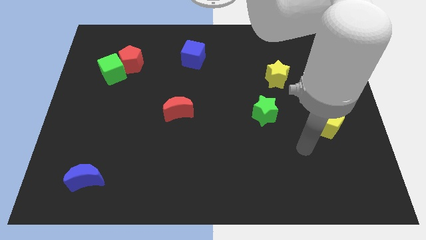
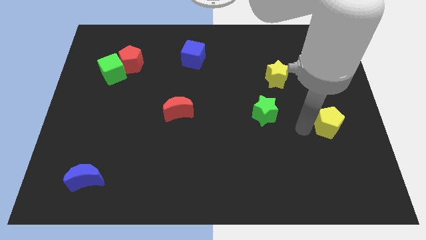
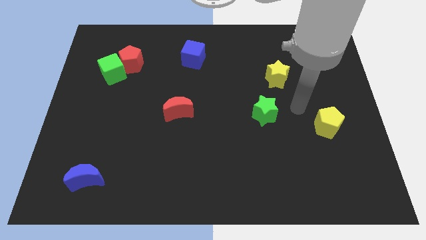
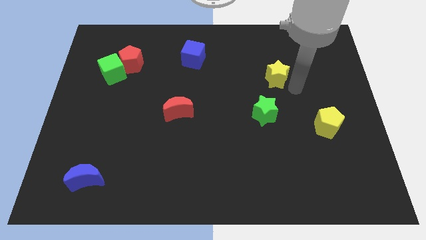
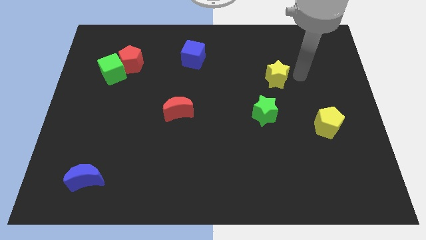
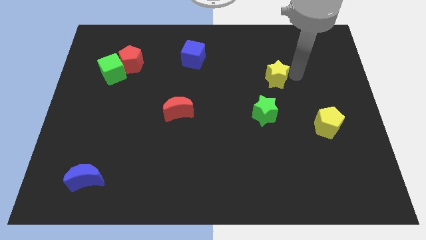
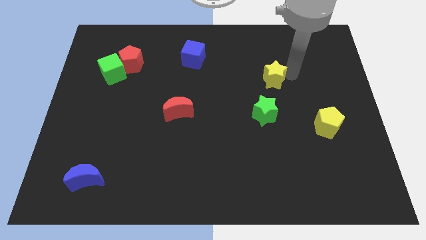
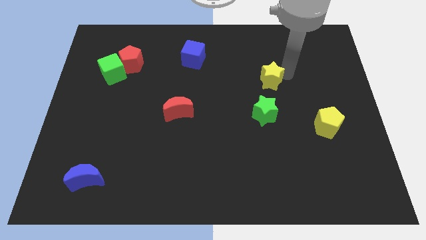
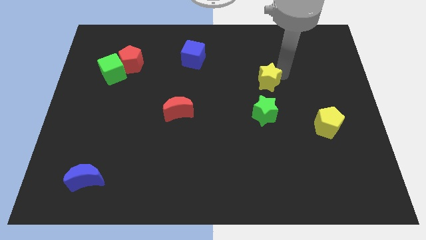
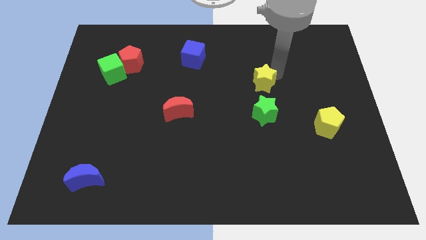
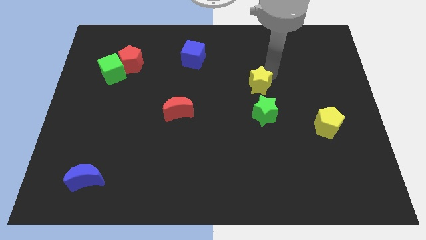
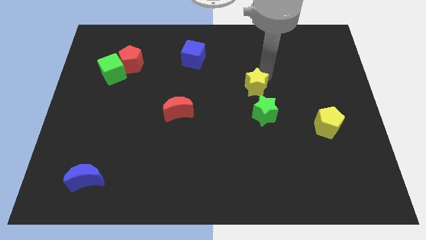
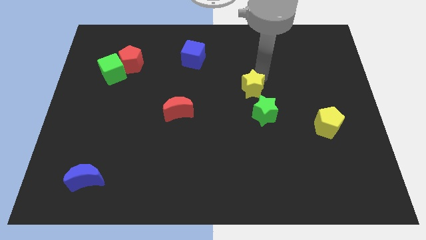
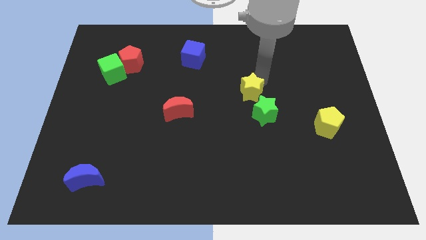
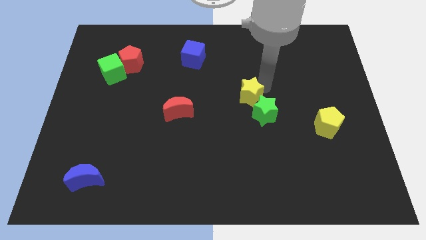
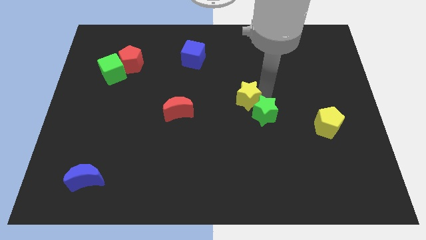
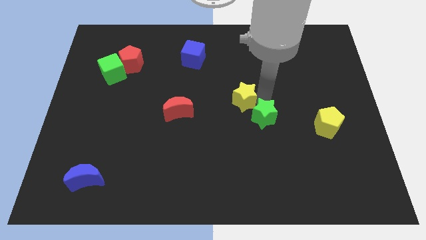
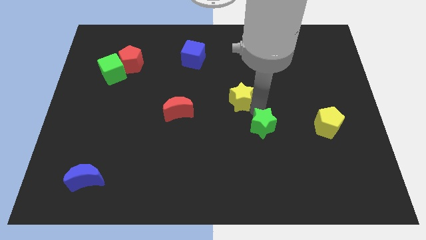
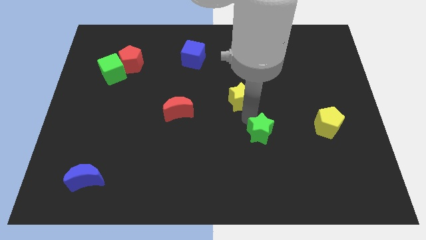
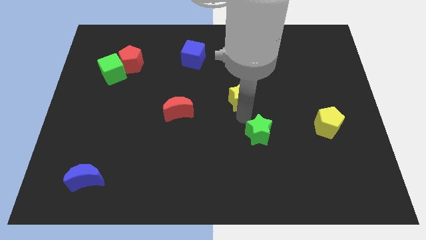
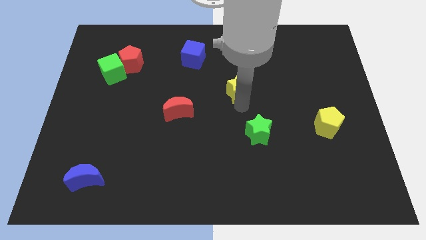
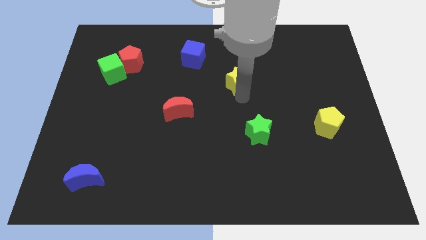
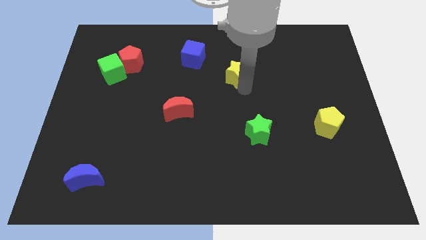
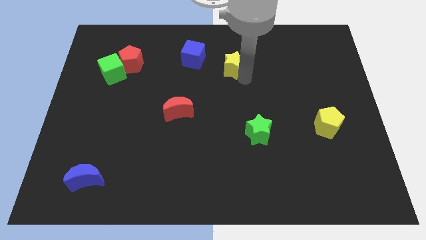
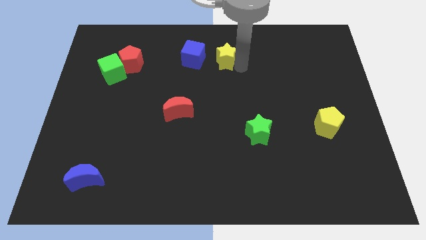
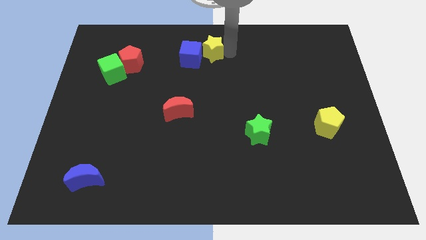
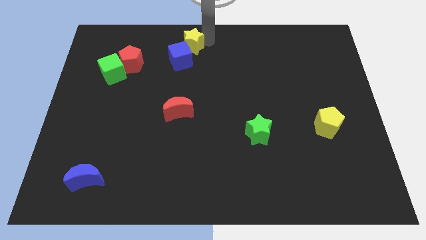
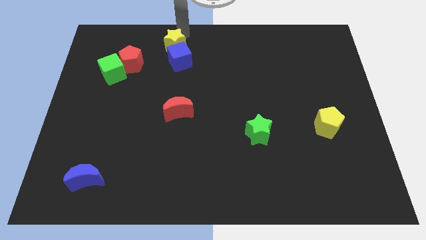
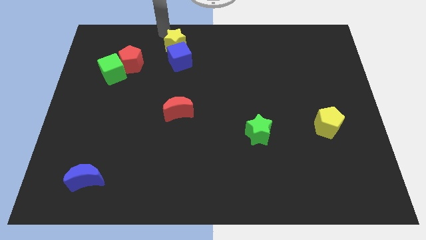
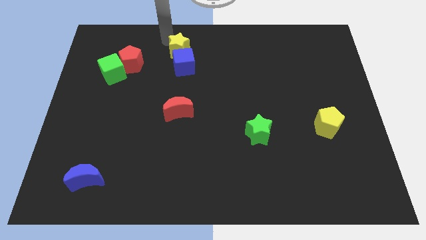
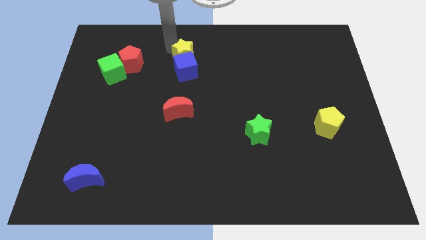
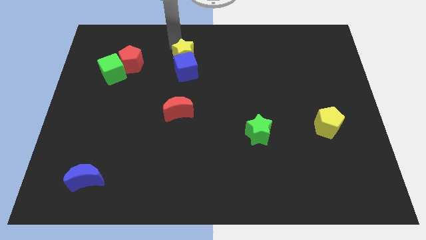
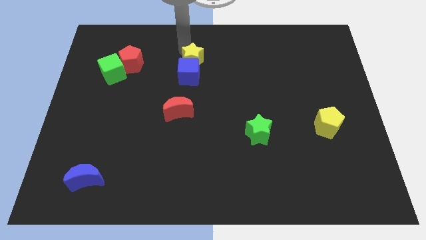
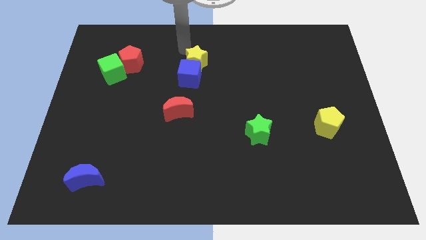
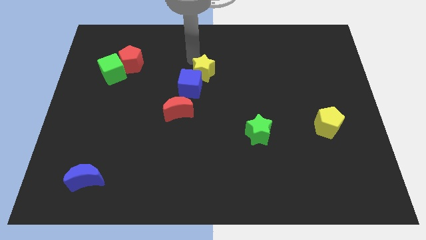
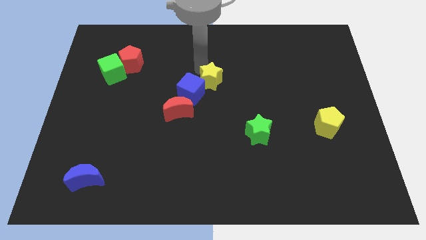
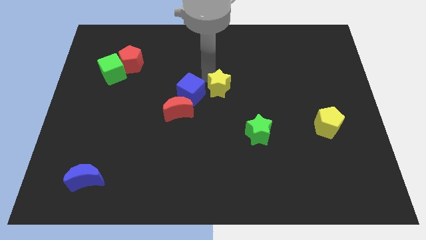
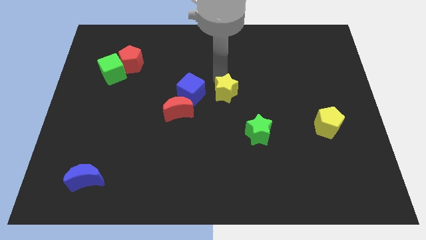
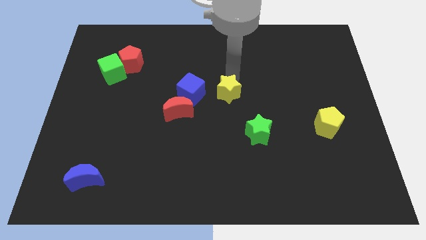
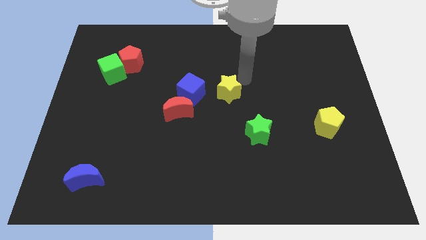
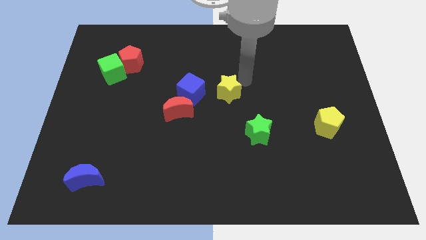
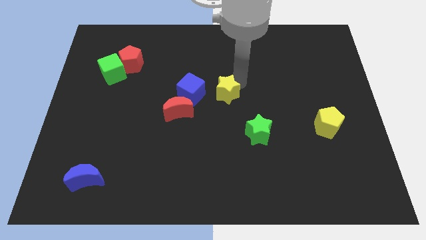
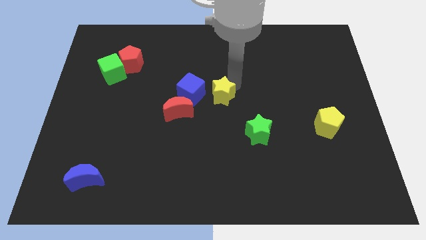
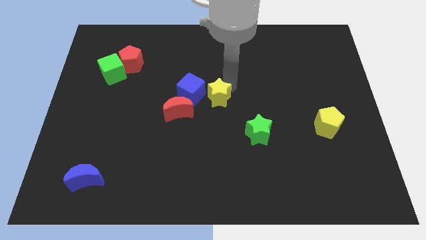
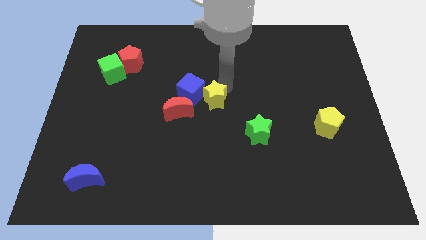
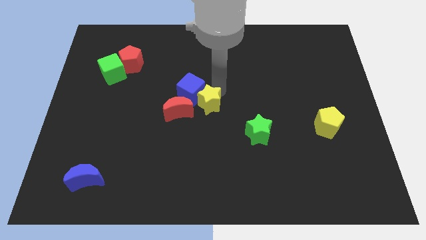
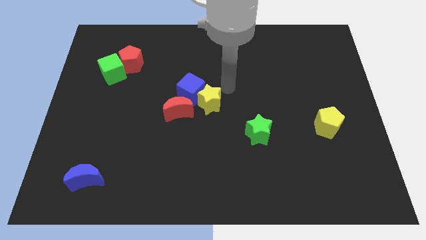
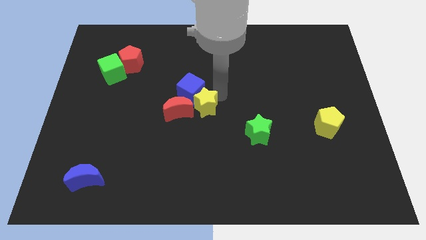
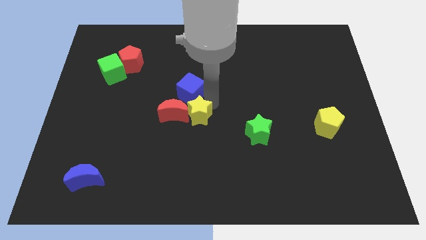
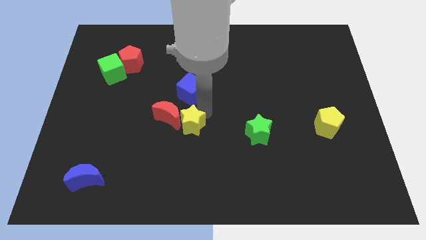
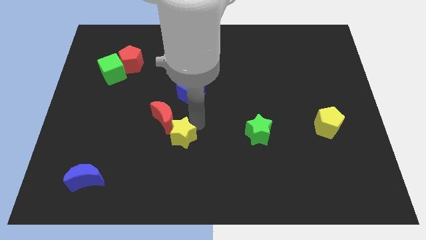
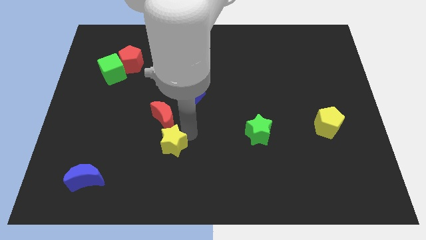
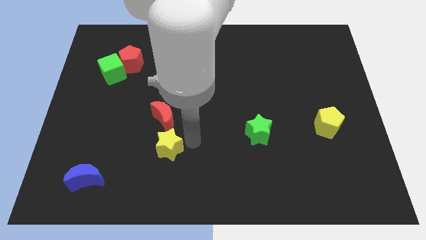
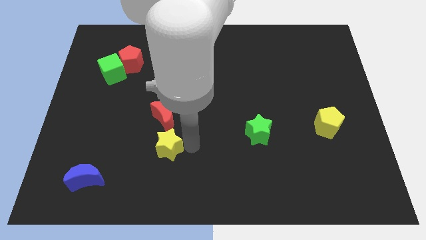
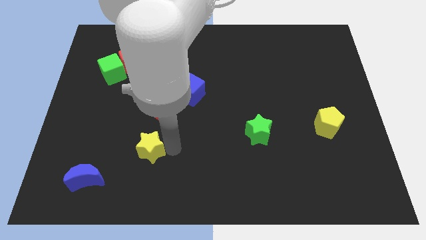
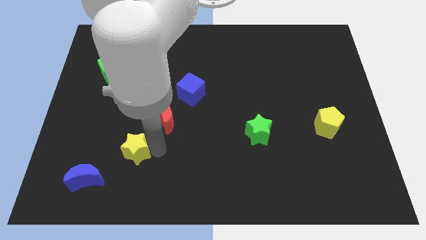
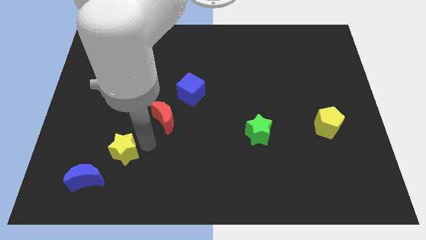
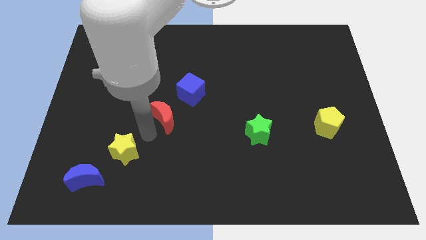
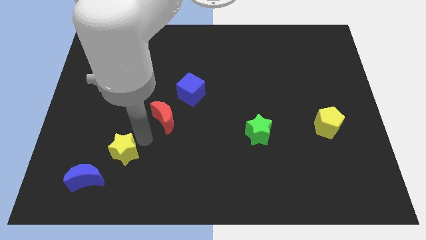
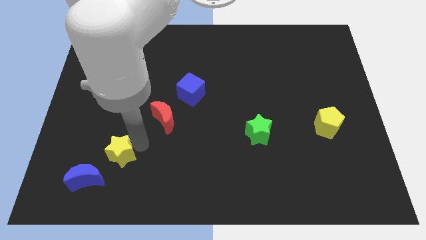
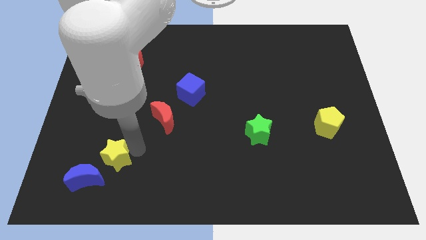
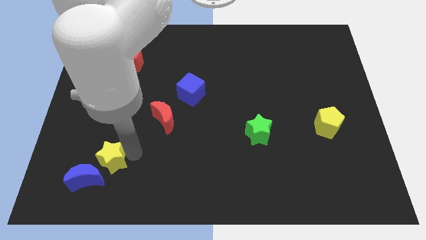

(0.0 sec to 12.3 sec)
put the yellow star next to the blue moon
